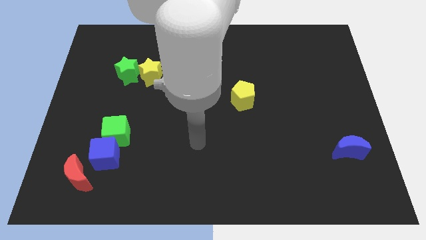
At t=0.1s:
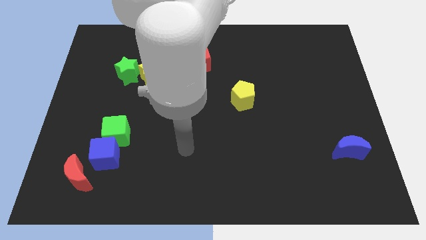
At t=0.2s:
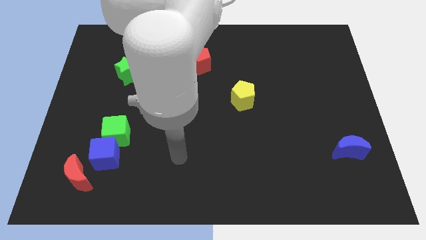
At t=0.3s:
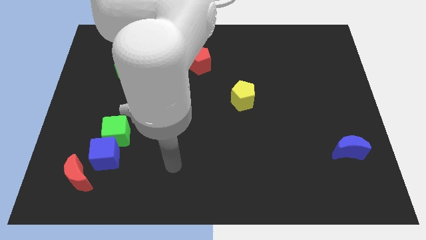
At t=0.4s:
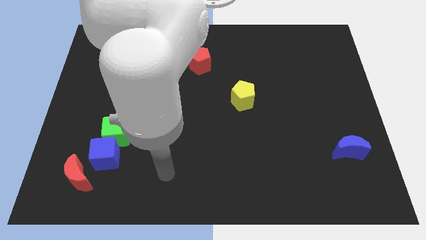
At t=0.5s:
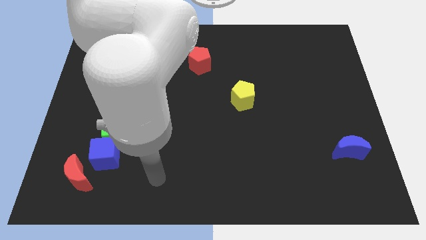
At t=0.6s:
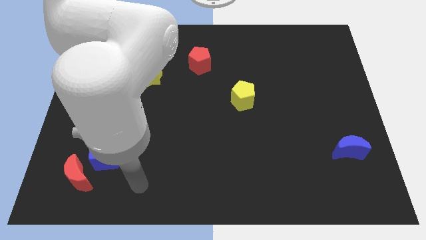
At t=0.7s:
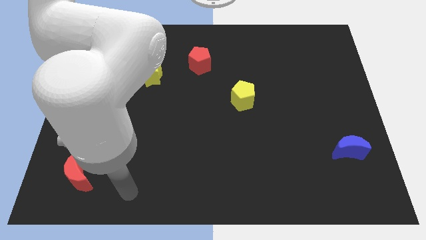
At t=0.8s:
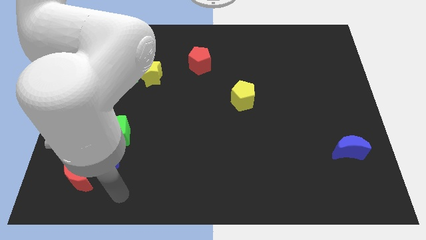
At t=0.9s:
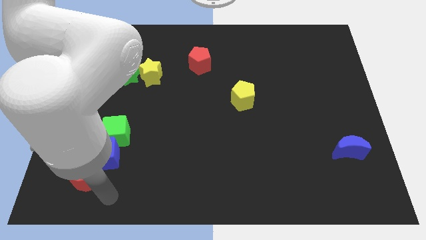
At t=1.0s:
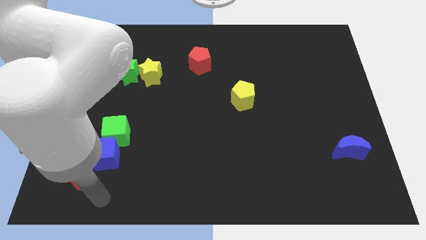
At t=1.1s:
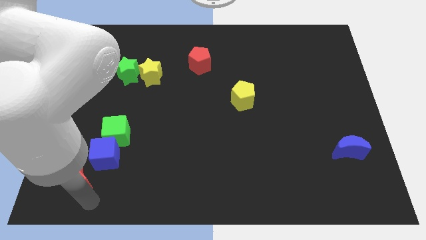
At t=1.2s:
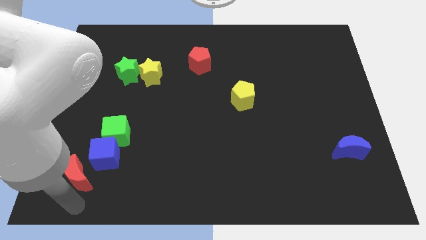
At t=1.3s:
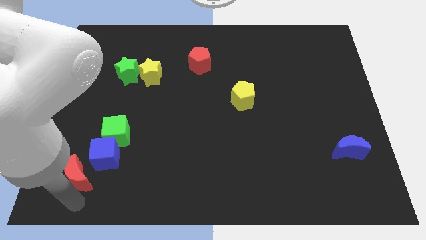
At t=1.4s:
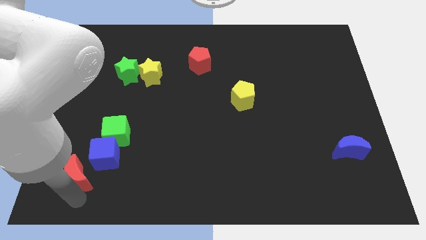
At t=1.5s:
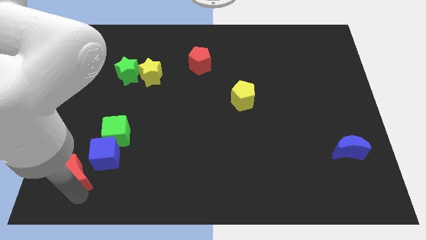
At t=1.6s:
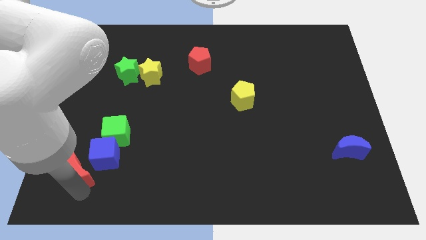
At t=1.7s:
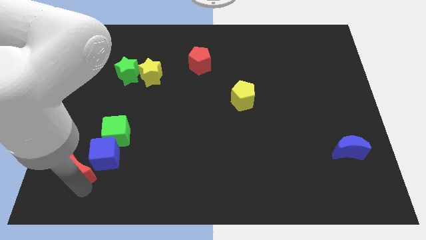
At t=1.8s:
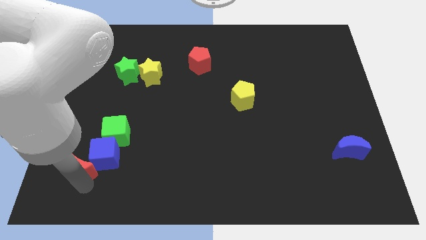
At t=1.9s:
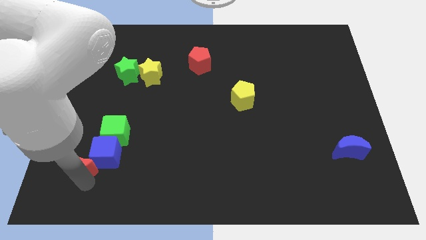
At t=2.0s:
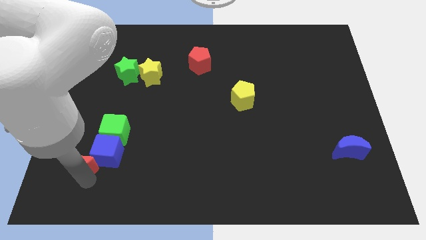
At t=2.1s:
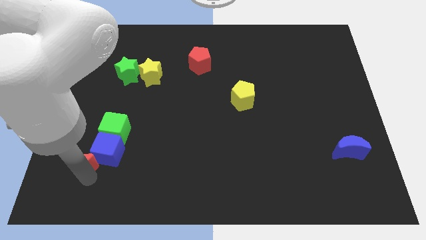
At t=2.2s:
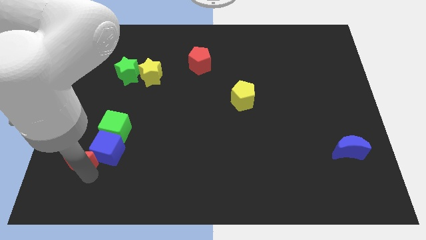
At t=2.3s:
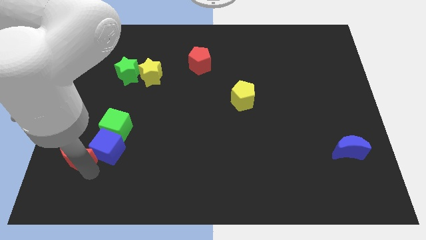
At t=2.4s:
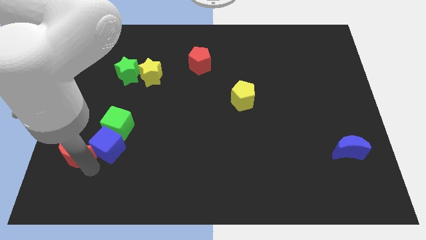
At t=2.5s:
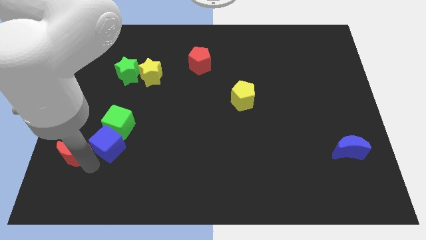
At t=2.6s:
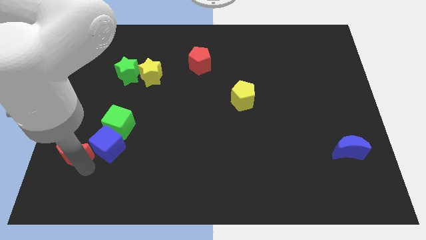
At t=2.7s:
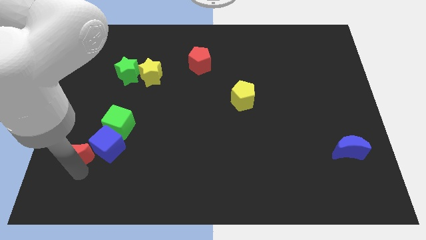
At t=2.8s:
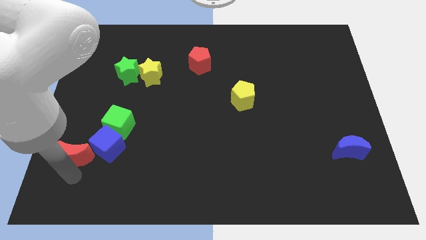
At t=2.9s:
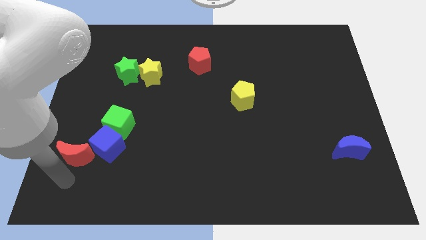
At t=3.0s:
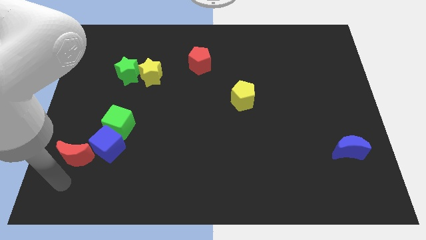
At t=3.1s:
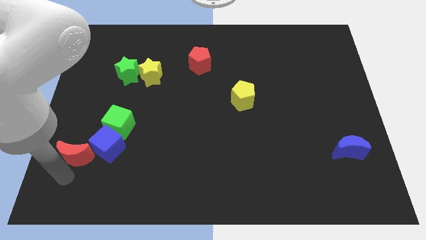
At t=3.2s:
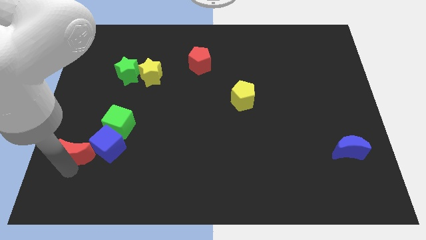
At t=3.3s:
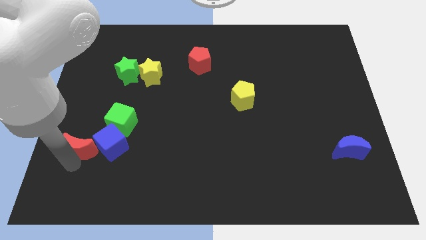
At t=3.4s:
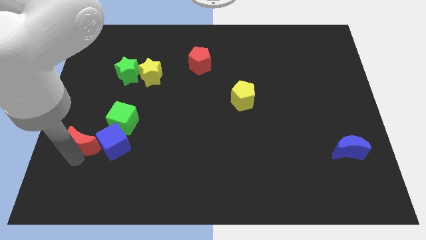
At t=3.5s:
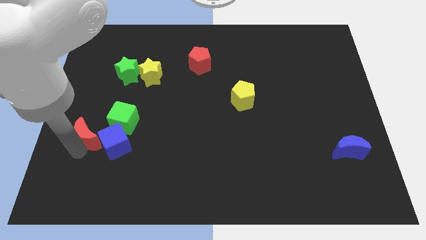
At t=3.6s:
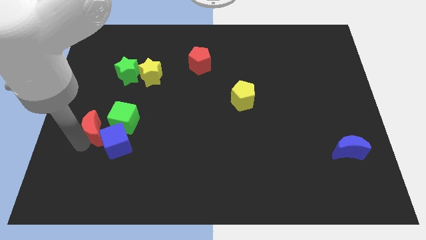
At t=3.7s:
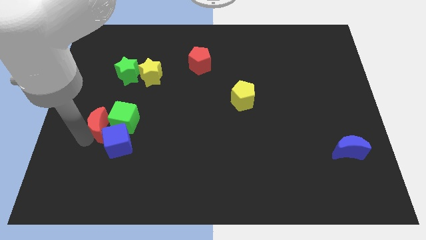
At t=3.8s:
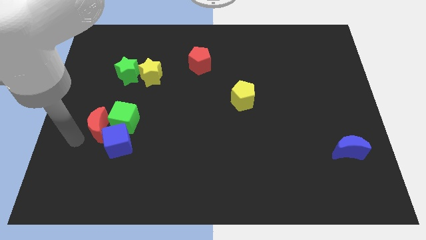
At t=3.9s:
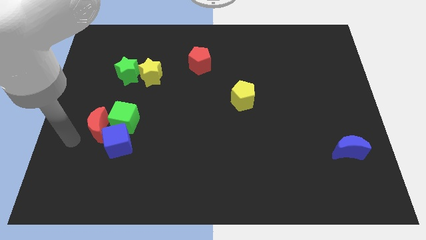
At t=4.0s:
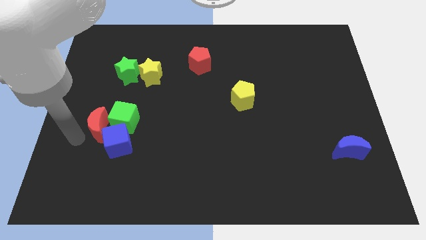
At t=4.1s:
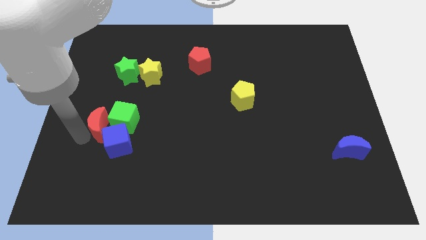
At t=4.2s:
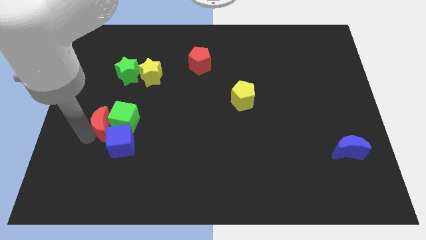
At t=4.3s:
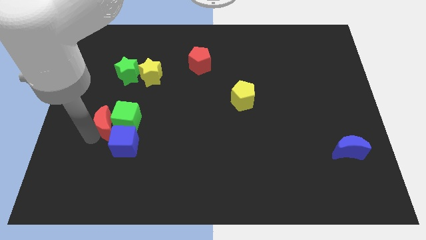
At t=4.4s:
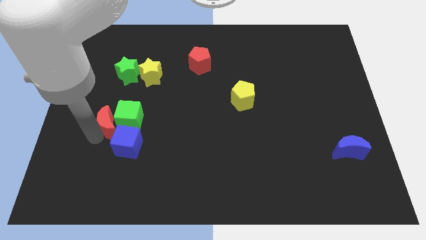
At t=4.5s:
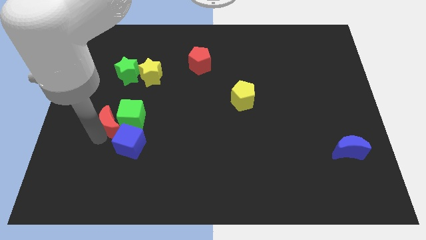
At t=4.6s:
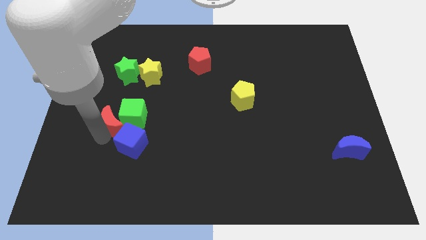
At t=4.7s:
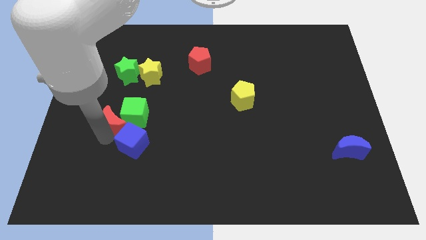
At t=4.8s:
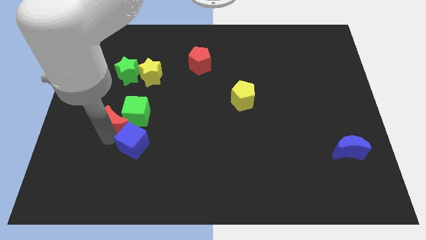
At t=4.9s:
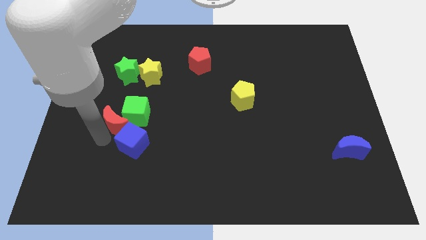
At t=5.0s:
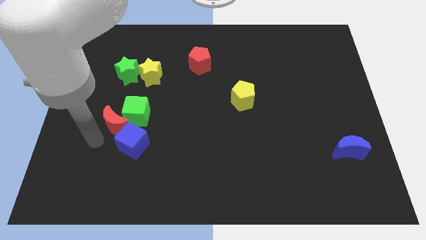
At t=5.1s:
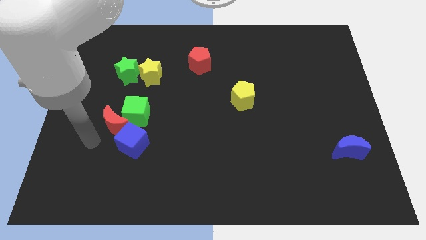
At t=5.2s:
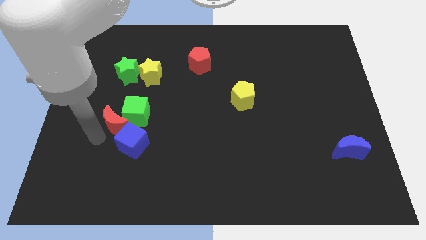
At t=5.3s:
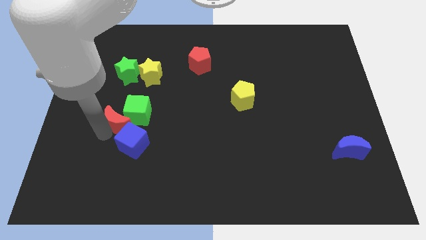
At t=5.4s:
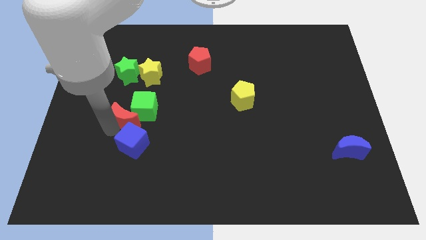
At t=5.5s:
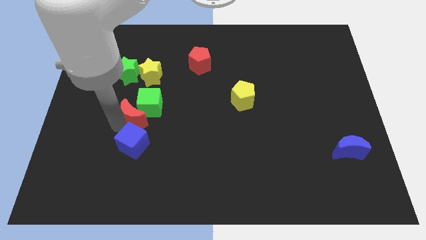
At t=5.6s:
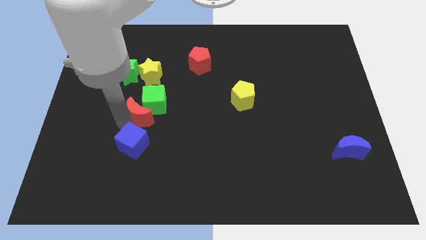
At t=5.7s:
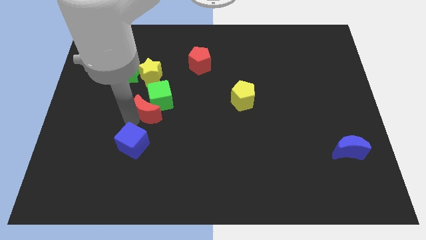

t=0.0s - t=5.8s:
slide the red moon diagonally upwards and right

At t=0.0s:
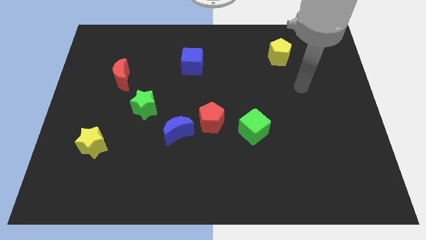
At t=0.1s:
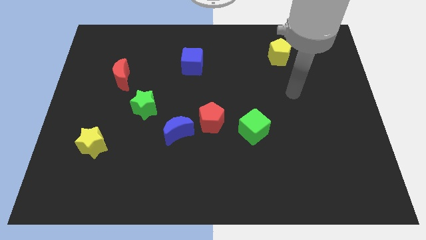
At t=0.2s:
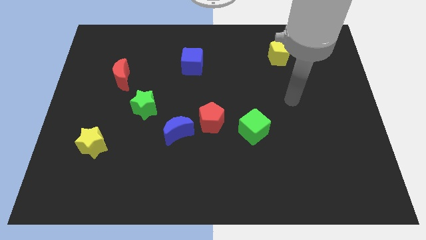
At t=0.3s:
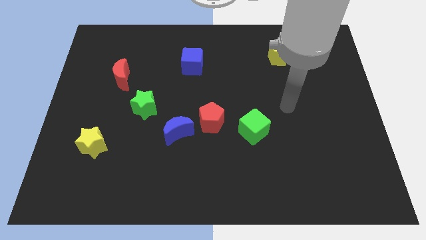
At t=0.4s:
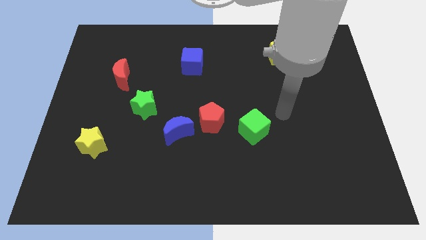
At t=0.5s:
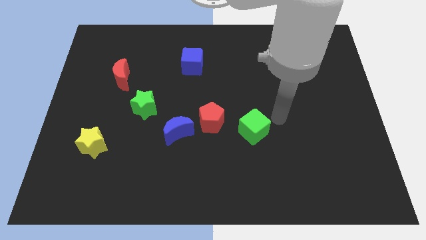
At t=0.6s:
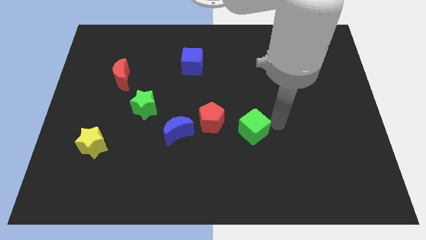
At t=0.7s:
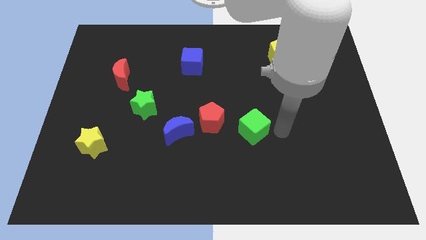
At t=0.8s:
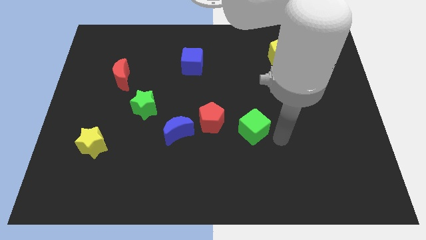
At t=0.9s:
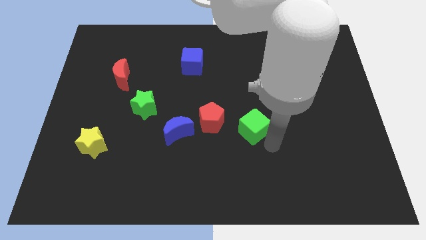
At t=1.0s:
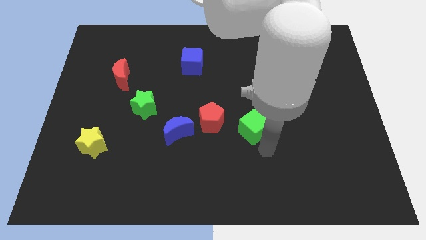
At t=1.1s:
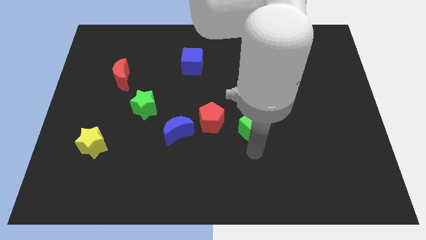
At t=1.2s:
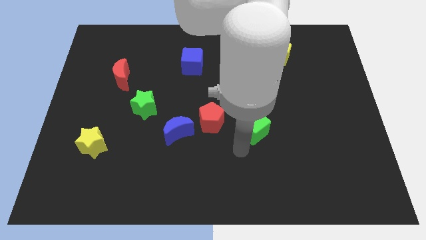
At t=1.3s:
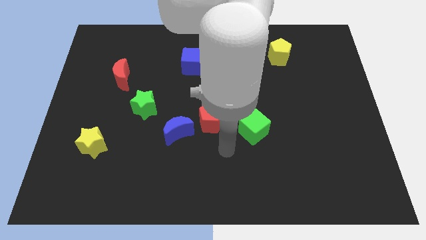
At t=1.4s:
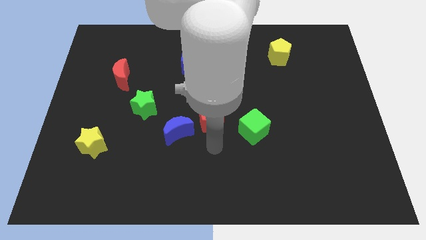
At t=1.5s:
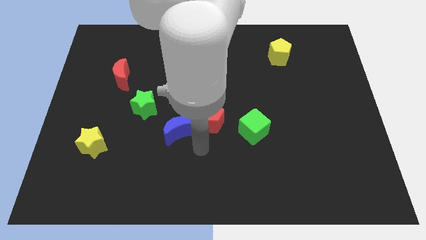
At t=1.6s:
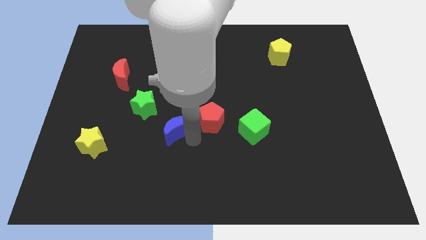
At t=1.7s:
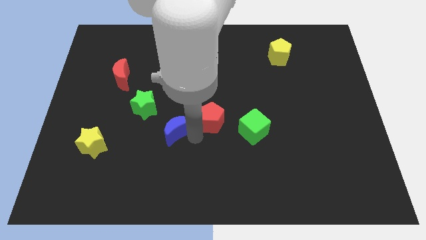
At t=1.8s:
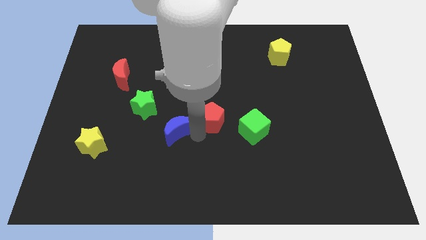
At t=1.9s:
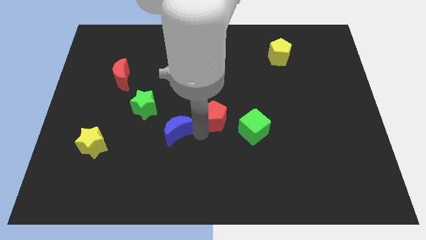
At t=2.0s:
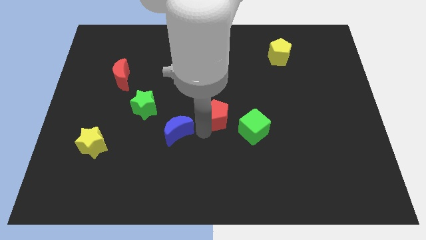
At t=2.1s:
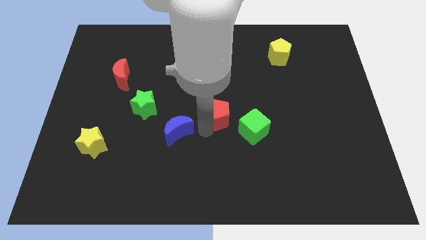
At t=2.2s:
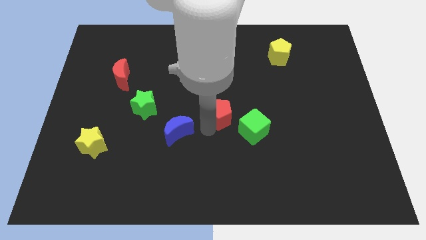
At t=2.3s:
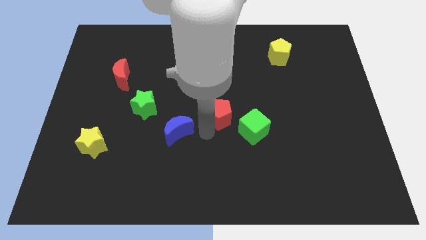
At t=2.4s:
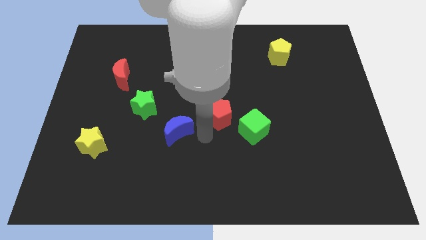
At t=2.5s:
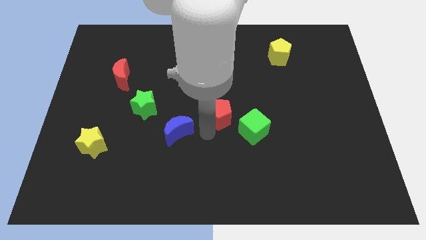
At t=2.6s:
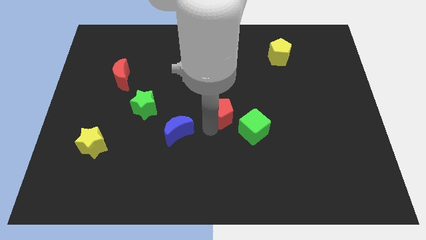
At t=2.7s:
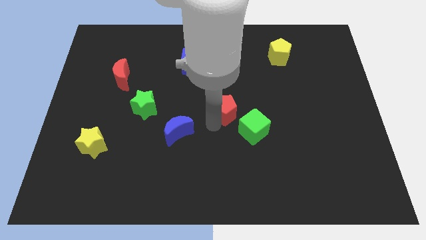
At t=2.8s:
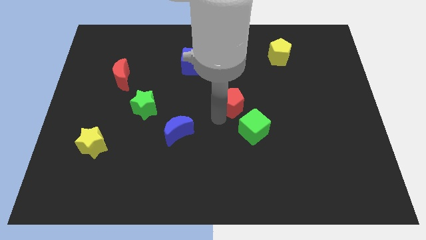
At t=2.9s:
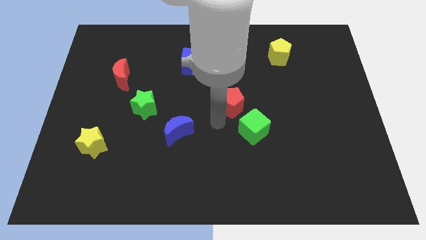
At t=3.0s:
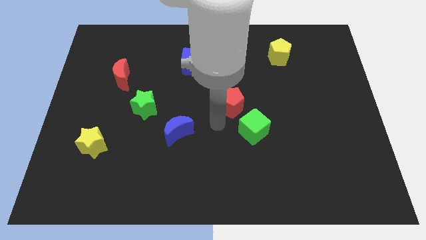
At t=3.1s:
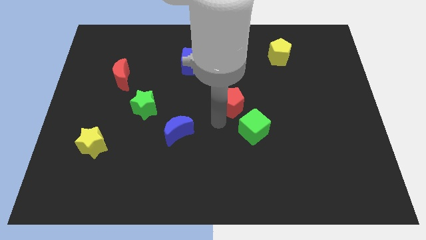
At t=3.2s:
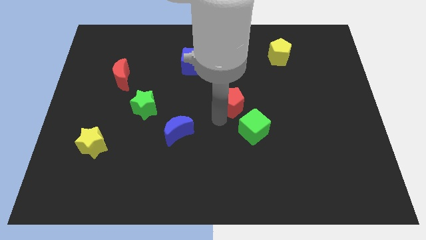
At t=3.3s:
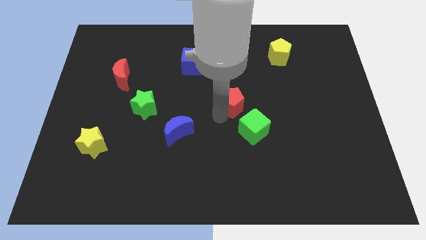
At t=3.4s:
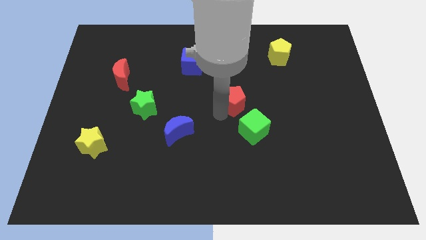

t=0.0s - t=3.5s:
push the red pentagon somewhat upwards and right
